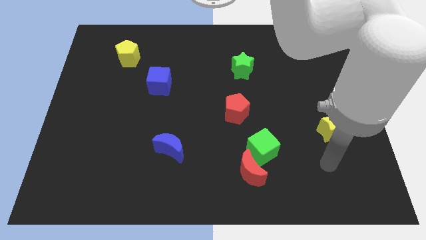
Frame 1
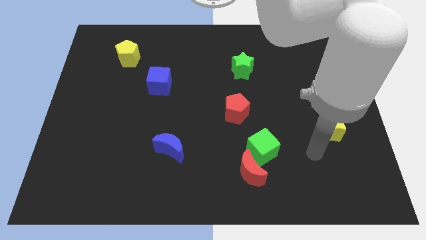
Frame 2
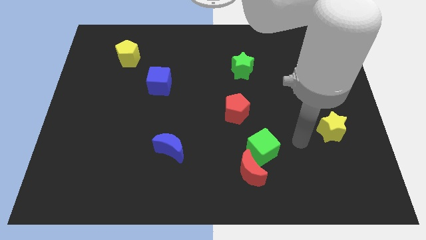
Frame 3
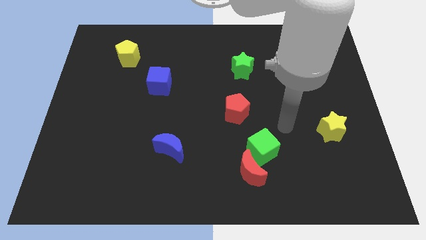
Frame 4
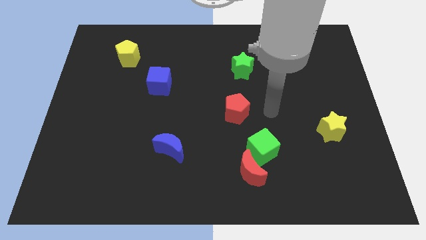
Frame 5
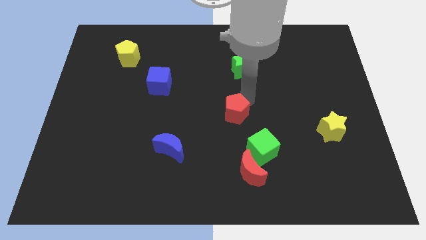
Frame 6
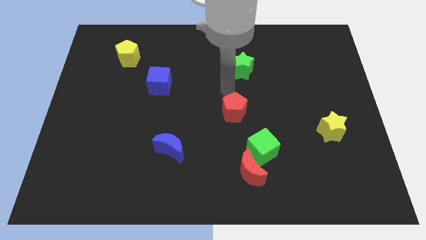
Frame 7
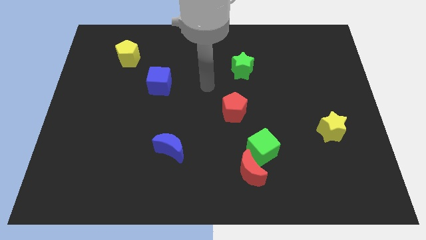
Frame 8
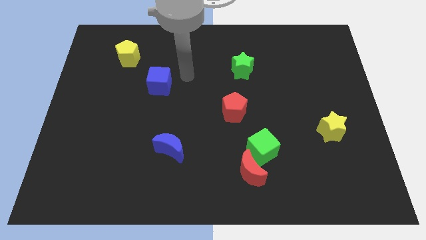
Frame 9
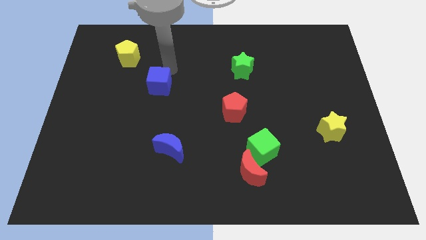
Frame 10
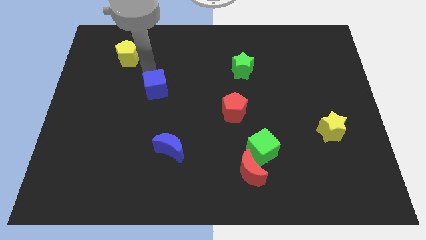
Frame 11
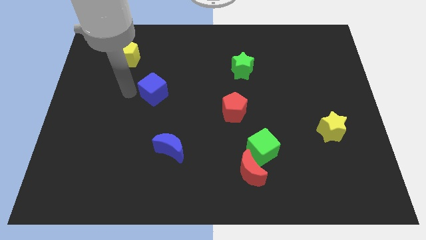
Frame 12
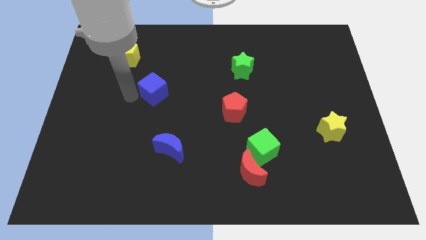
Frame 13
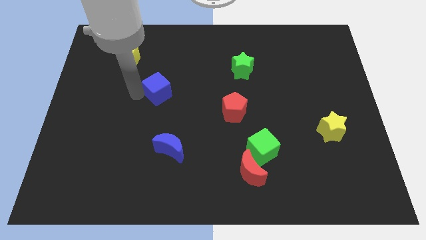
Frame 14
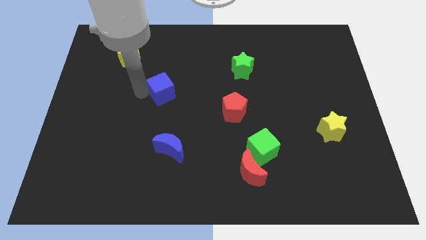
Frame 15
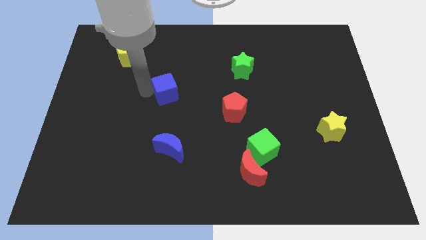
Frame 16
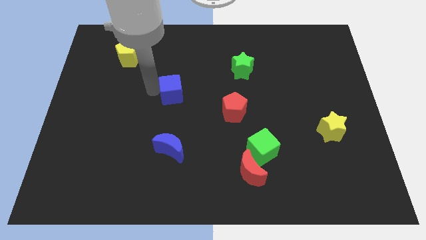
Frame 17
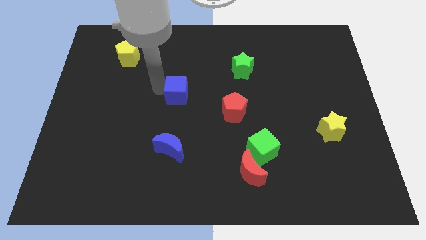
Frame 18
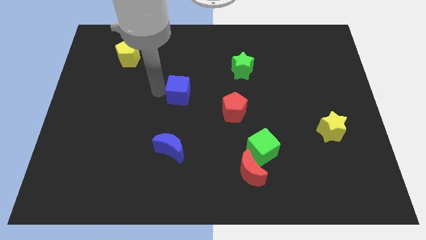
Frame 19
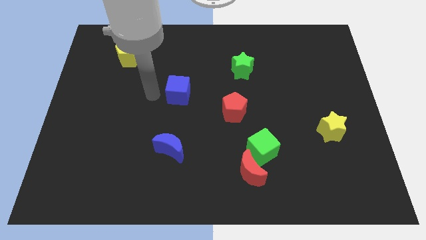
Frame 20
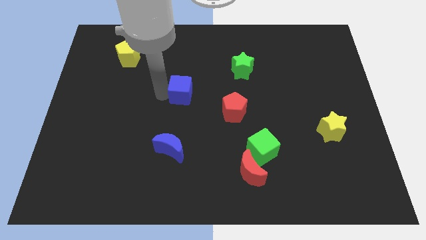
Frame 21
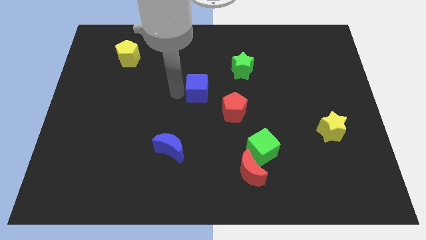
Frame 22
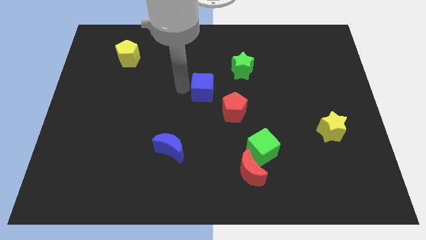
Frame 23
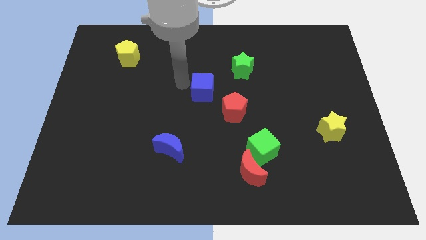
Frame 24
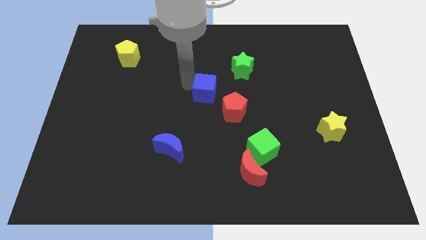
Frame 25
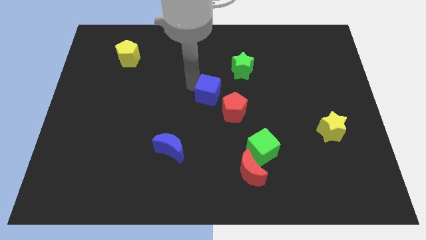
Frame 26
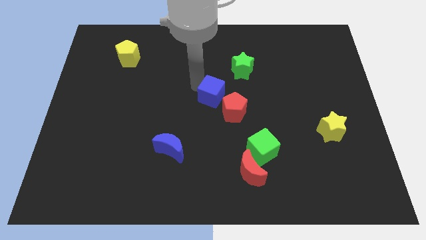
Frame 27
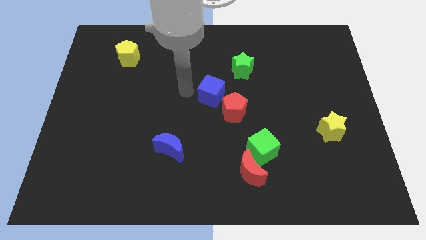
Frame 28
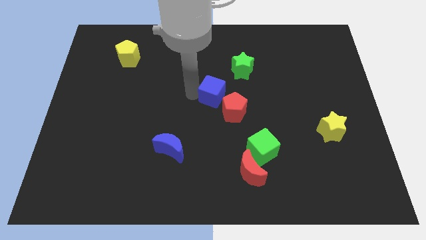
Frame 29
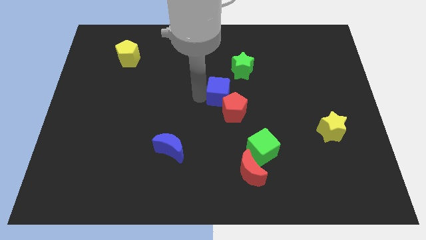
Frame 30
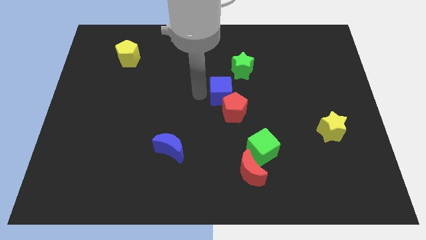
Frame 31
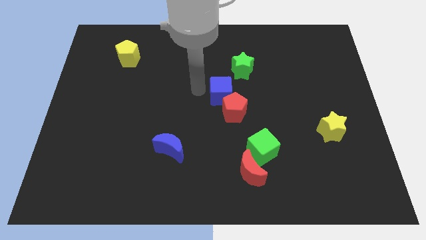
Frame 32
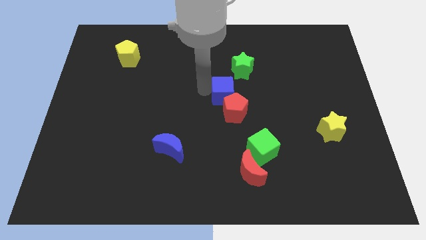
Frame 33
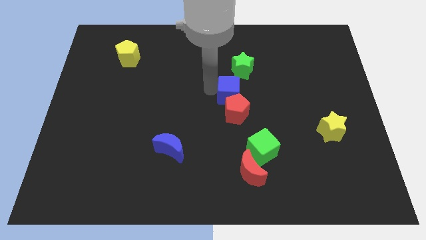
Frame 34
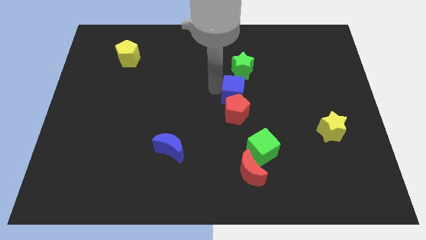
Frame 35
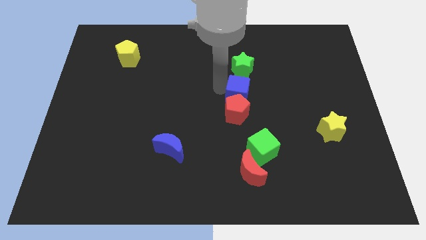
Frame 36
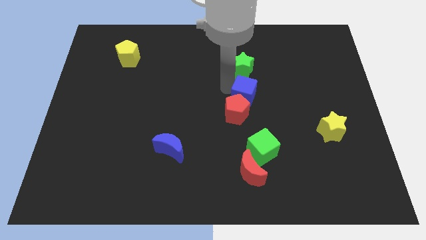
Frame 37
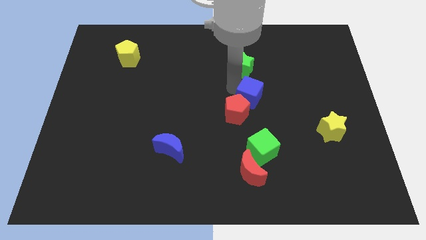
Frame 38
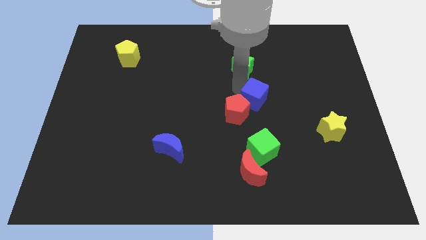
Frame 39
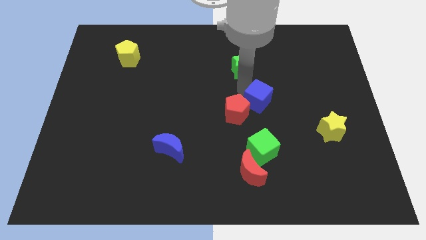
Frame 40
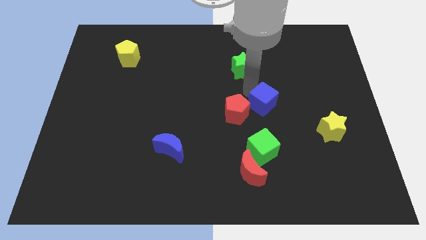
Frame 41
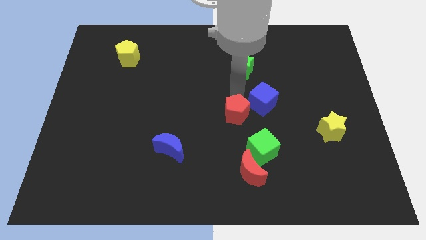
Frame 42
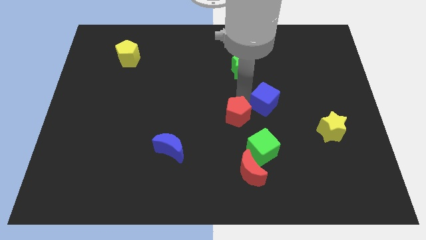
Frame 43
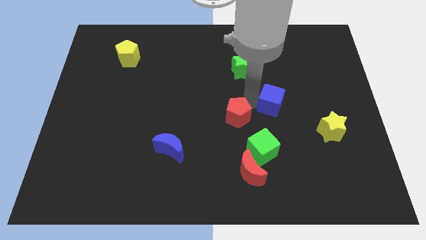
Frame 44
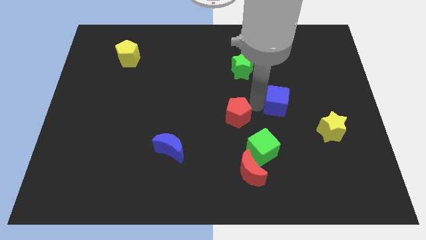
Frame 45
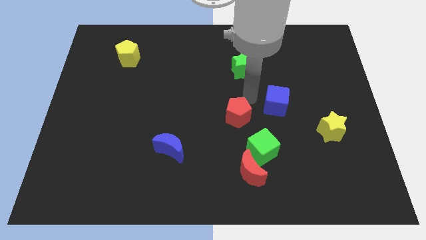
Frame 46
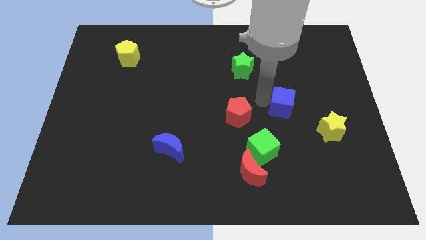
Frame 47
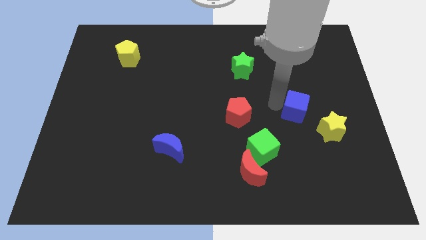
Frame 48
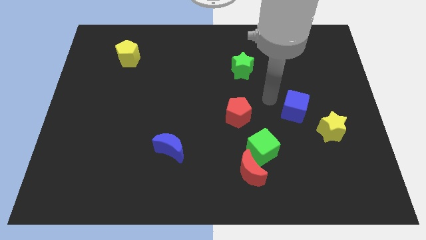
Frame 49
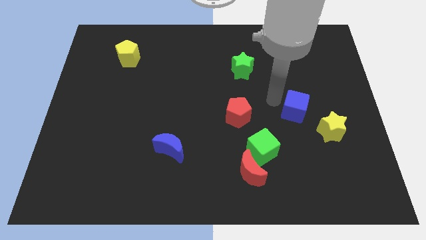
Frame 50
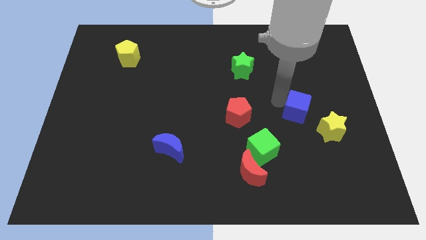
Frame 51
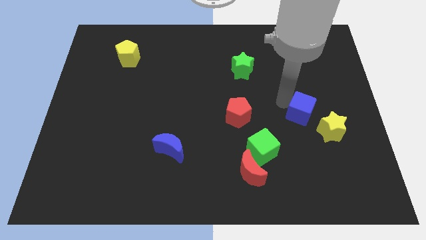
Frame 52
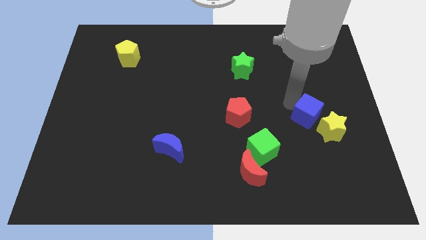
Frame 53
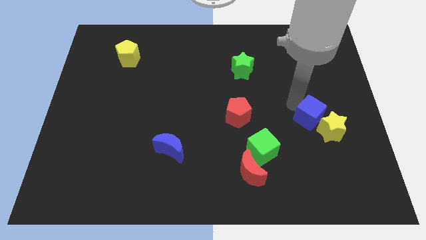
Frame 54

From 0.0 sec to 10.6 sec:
put the blue cube towards the yellow star

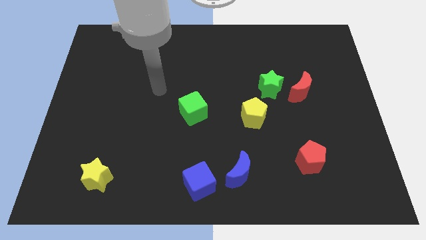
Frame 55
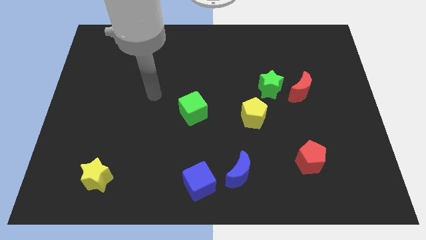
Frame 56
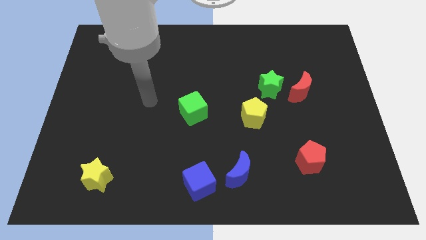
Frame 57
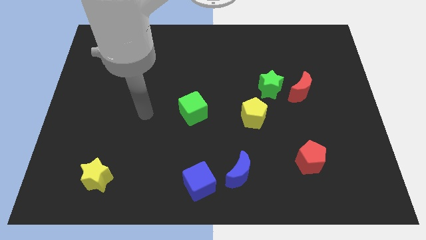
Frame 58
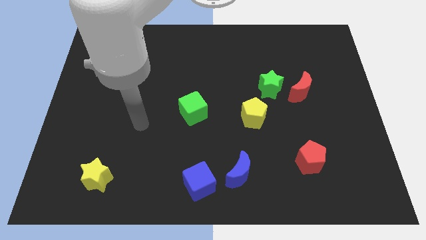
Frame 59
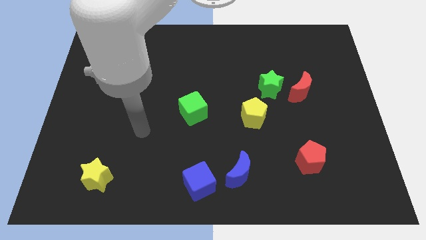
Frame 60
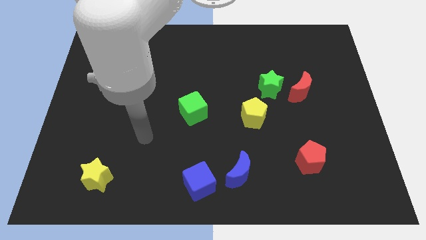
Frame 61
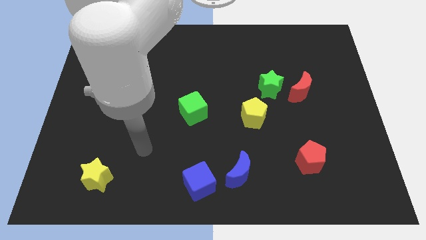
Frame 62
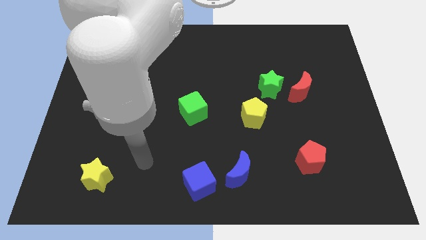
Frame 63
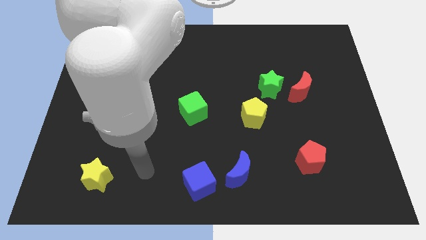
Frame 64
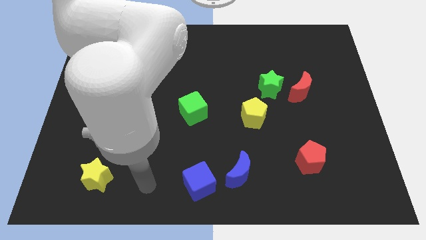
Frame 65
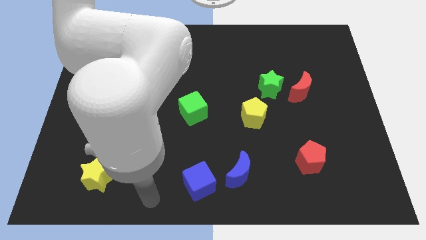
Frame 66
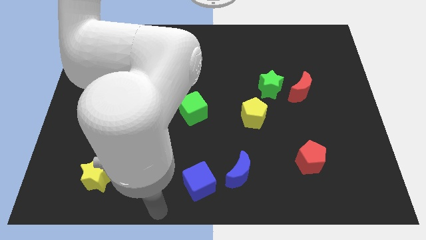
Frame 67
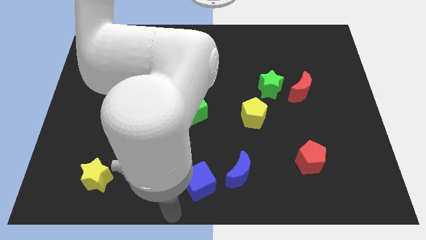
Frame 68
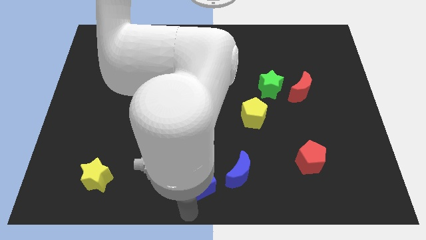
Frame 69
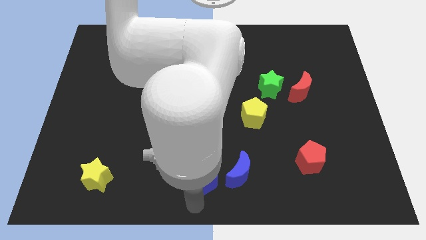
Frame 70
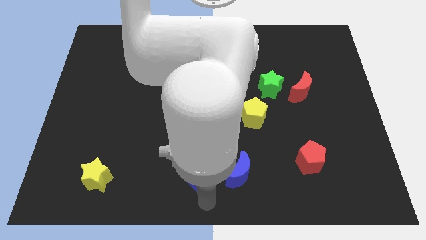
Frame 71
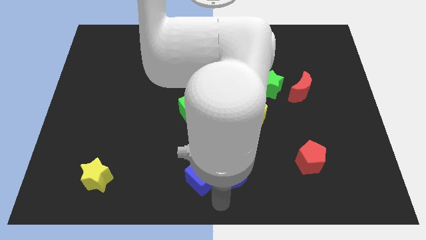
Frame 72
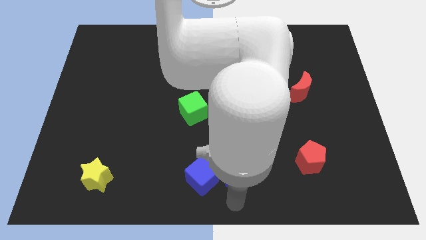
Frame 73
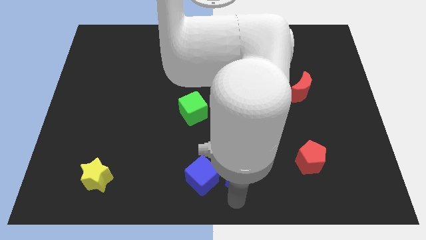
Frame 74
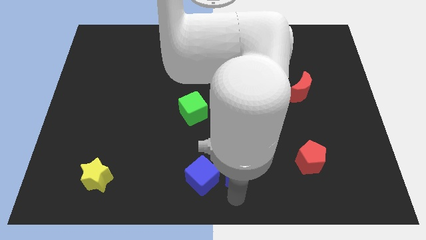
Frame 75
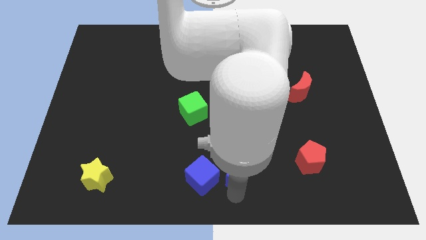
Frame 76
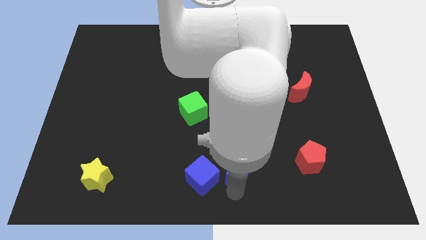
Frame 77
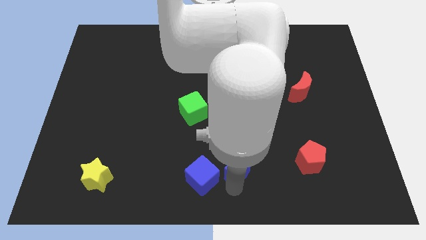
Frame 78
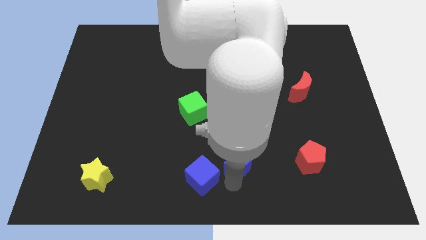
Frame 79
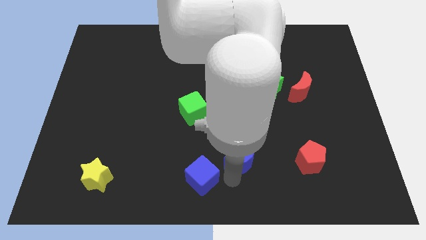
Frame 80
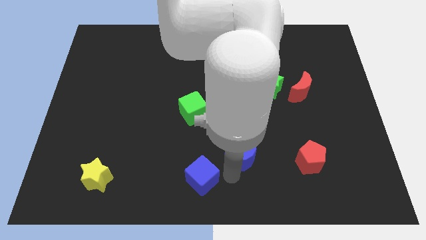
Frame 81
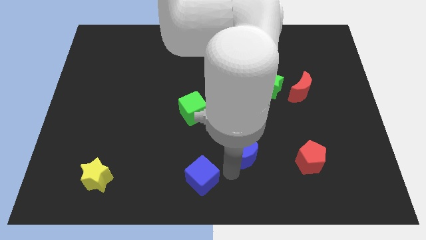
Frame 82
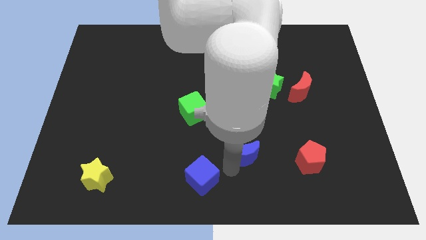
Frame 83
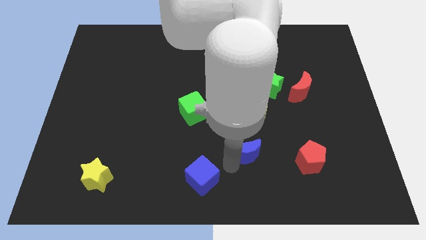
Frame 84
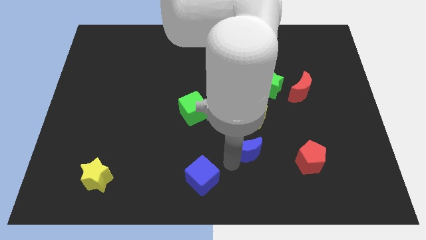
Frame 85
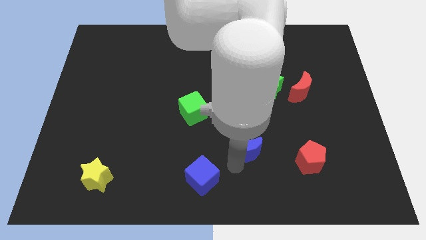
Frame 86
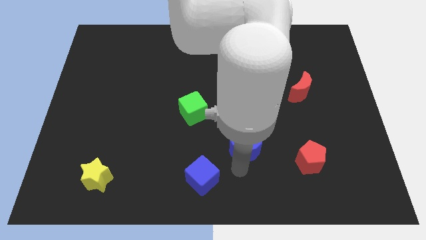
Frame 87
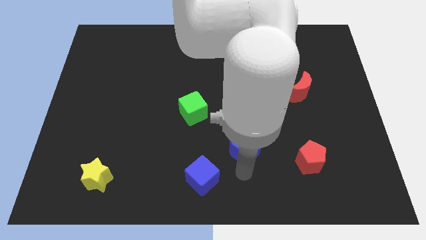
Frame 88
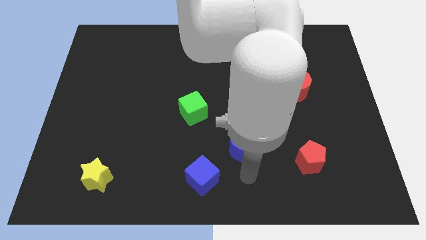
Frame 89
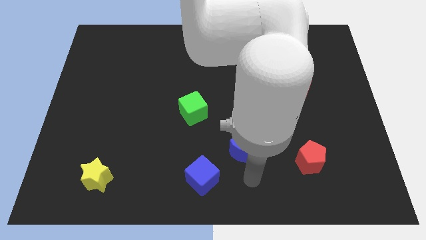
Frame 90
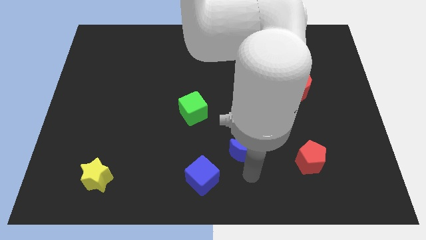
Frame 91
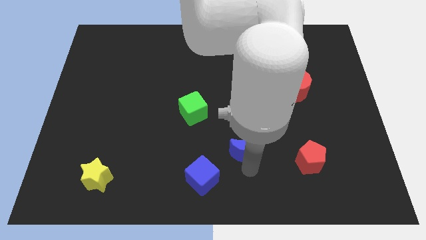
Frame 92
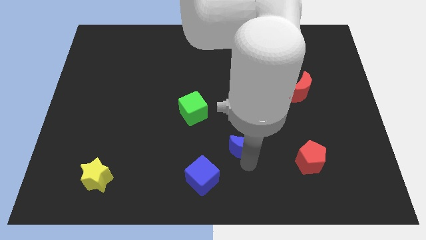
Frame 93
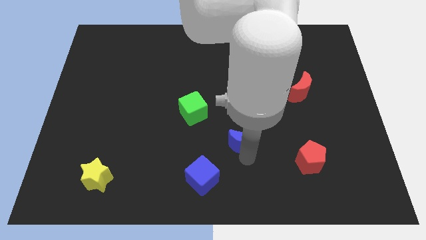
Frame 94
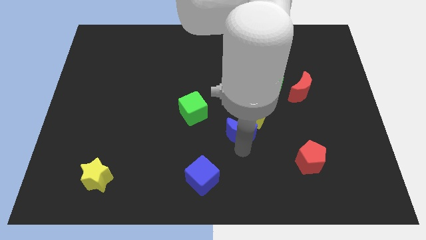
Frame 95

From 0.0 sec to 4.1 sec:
put the blue moon to the yellow pentagon
